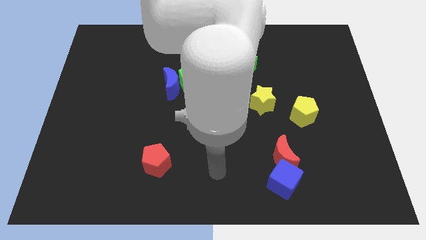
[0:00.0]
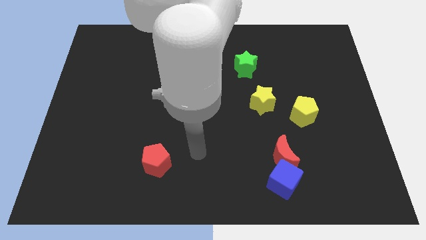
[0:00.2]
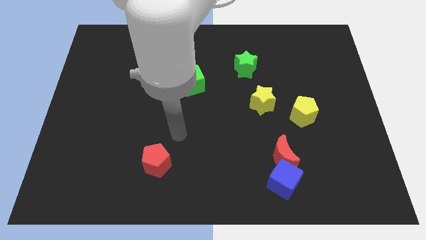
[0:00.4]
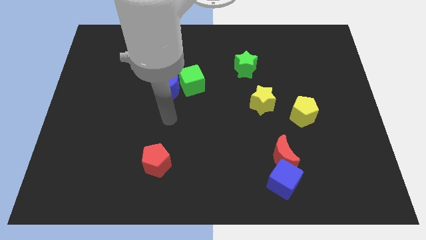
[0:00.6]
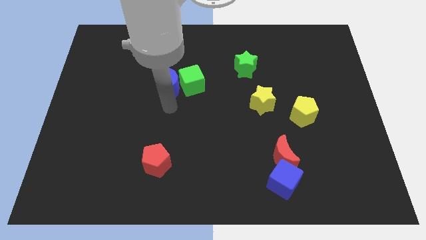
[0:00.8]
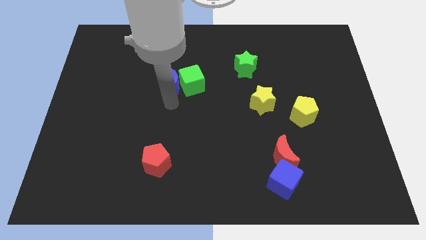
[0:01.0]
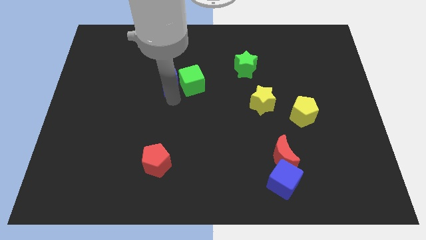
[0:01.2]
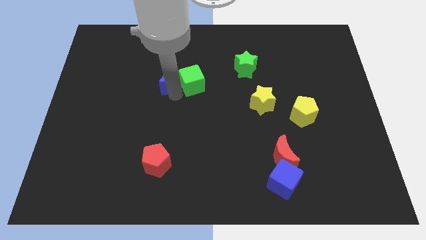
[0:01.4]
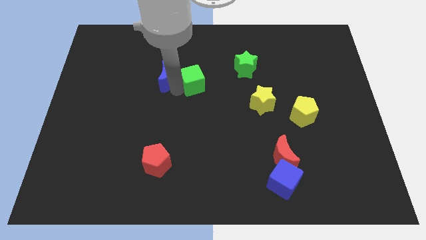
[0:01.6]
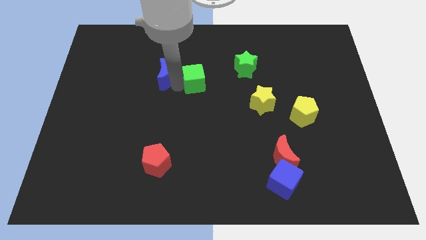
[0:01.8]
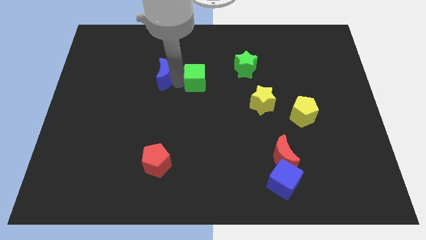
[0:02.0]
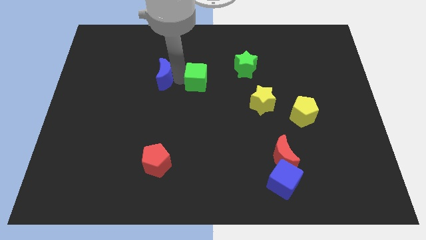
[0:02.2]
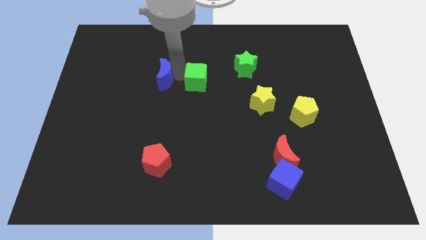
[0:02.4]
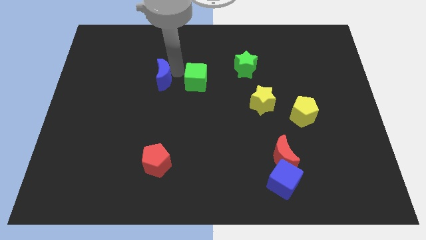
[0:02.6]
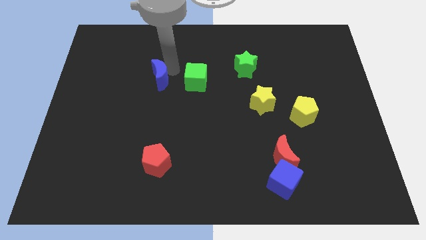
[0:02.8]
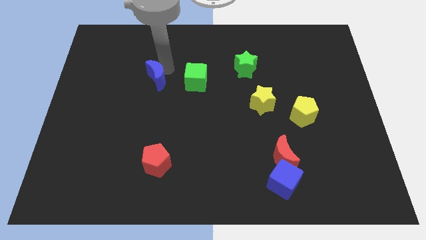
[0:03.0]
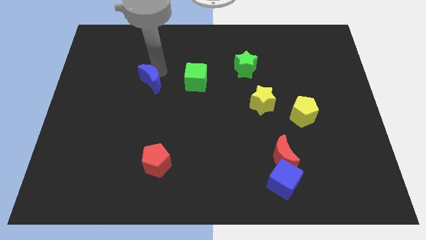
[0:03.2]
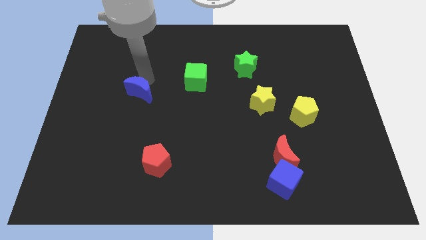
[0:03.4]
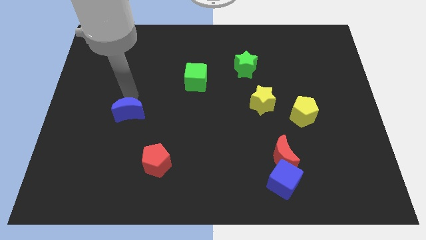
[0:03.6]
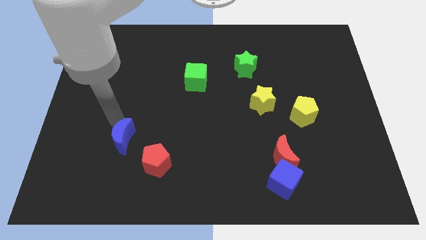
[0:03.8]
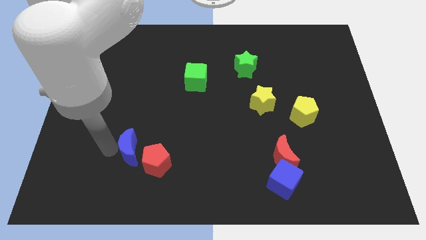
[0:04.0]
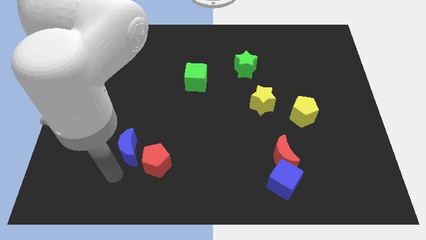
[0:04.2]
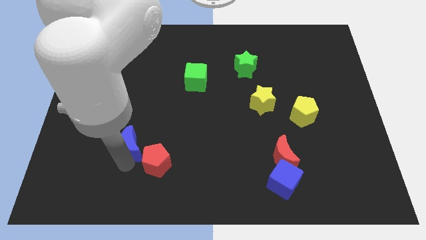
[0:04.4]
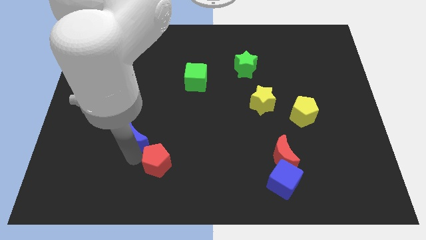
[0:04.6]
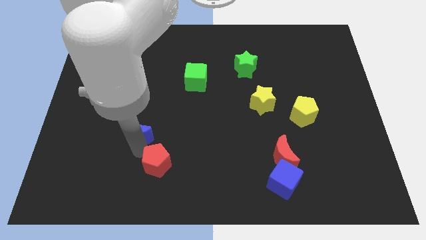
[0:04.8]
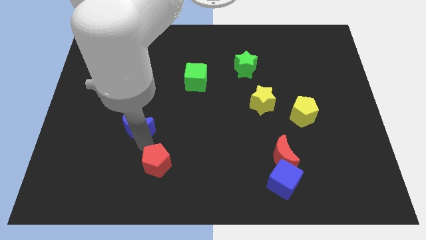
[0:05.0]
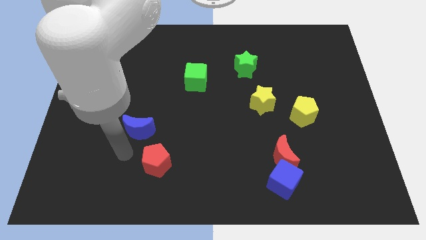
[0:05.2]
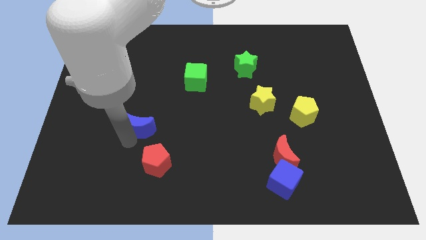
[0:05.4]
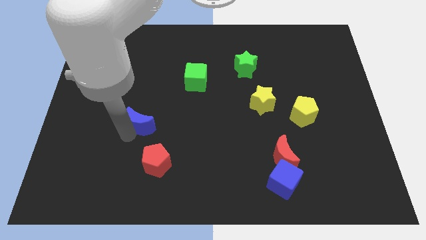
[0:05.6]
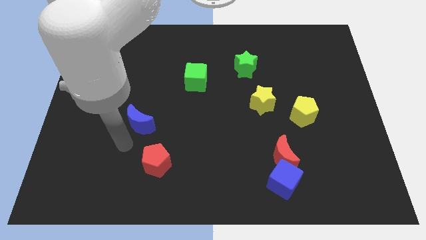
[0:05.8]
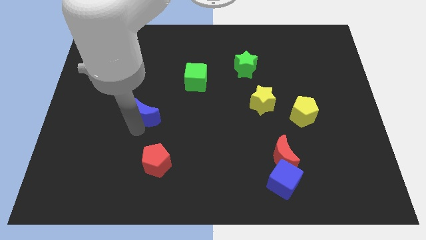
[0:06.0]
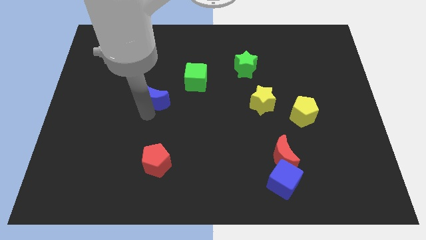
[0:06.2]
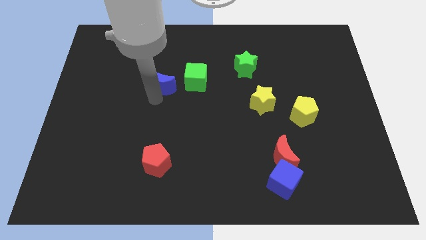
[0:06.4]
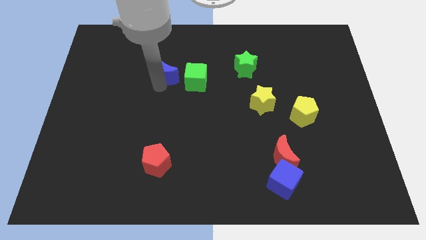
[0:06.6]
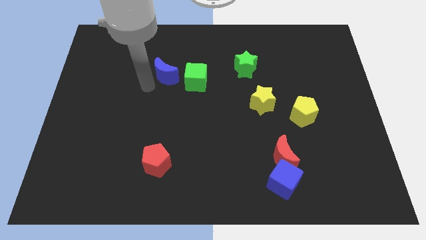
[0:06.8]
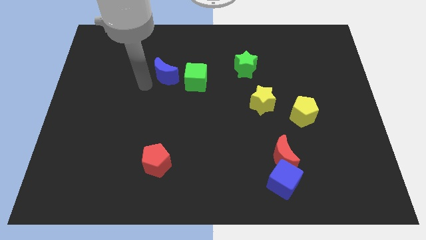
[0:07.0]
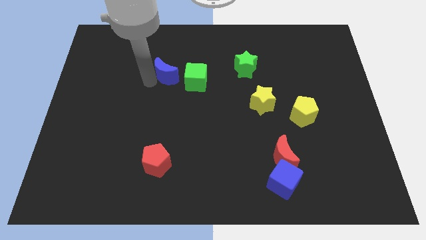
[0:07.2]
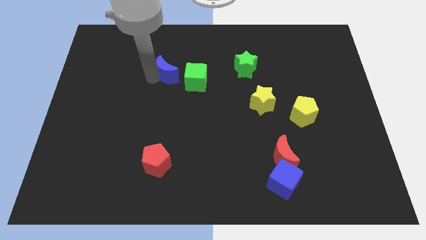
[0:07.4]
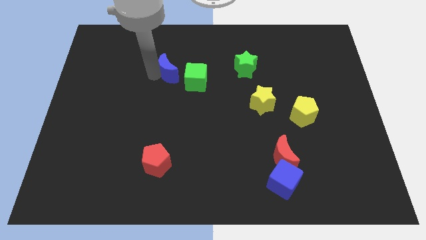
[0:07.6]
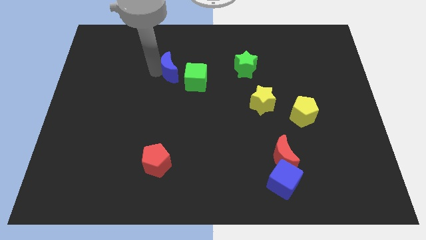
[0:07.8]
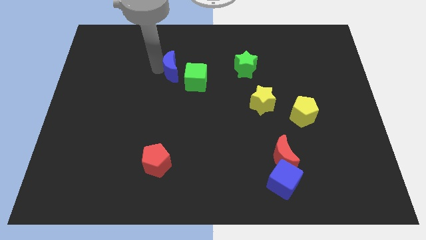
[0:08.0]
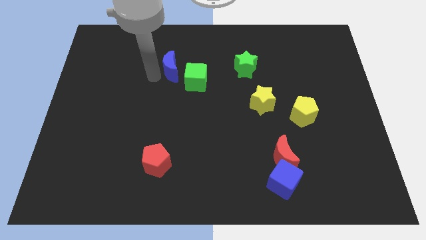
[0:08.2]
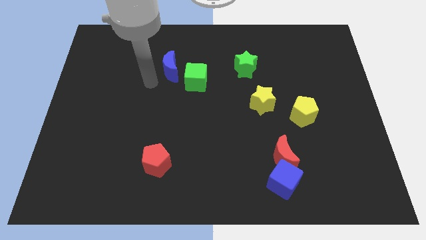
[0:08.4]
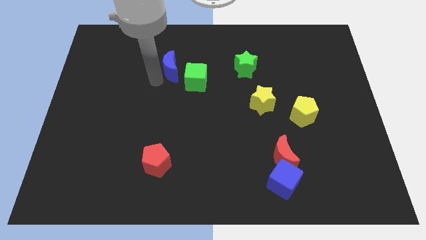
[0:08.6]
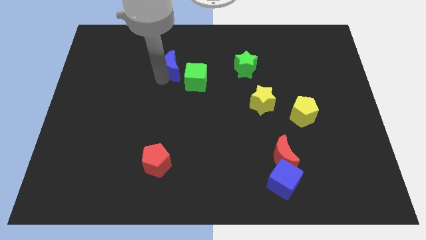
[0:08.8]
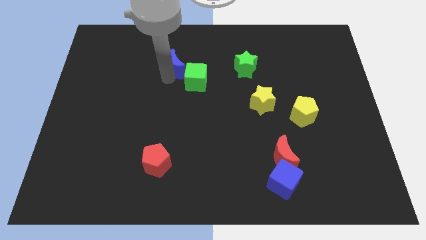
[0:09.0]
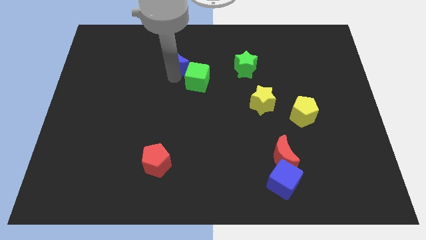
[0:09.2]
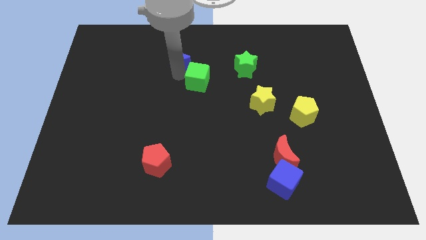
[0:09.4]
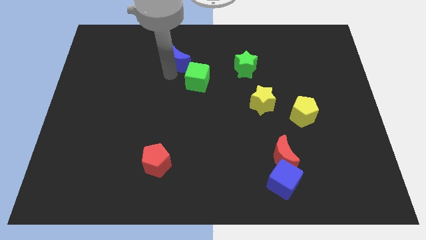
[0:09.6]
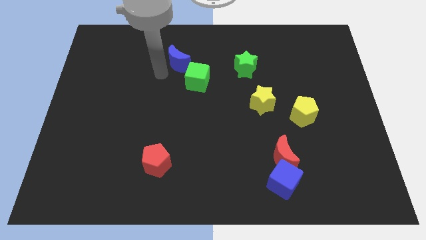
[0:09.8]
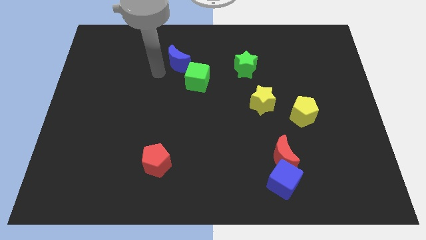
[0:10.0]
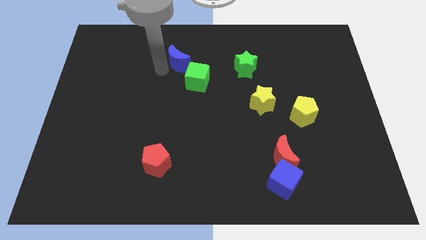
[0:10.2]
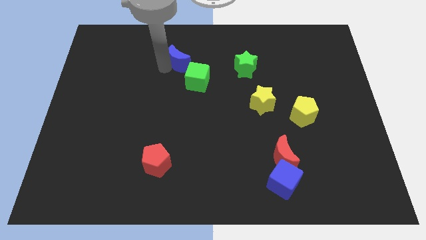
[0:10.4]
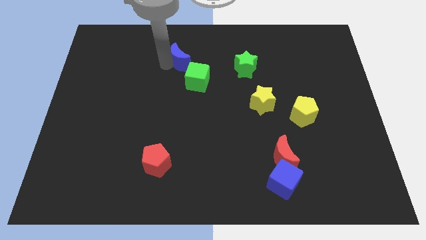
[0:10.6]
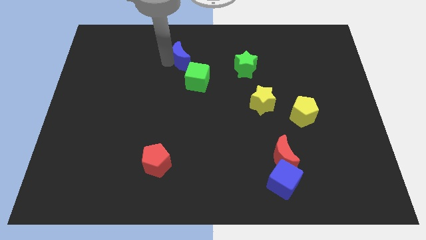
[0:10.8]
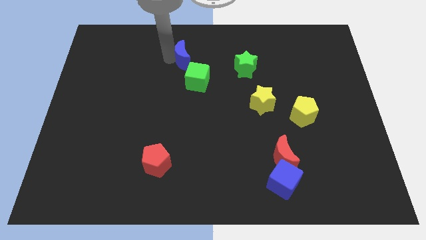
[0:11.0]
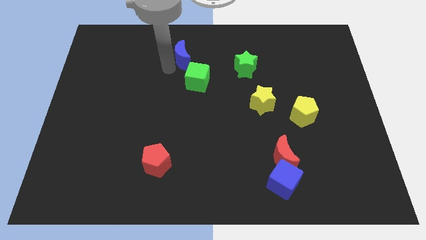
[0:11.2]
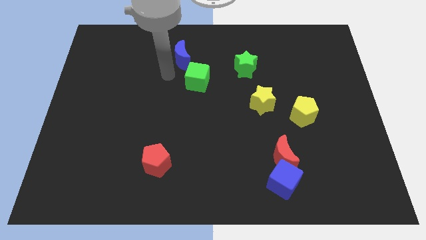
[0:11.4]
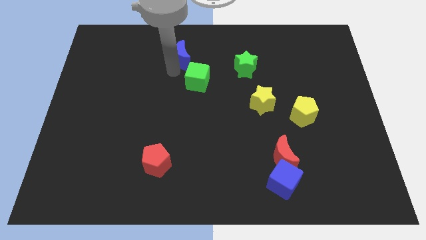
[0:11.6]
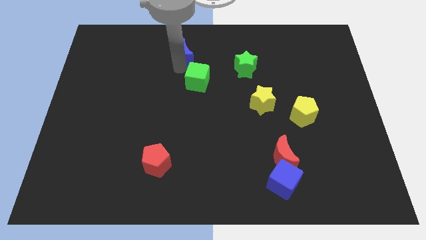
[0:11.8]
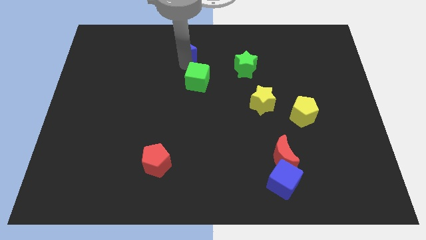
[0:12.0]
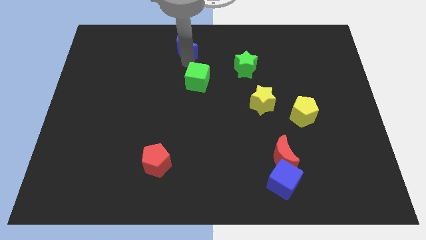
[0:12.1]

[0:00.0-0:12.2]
push the blue moon to the top

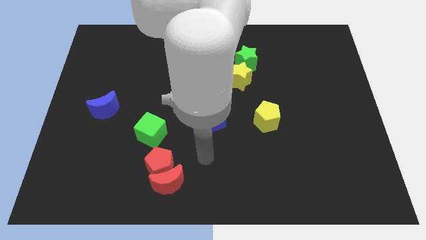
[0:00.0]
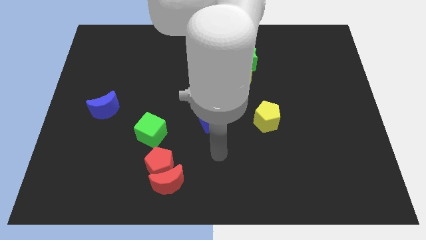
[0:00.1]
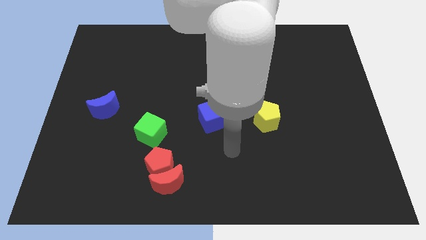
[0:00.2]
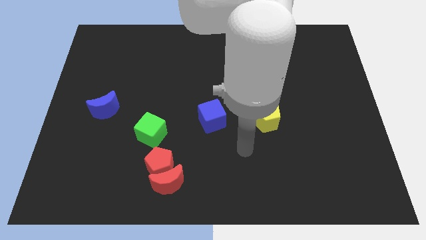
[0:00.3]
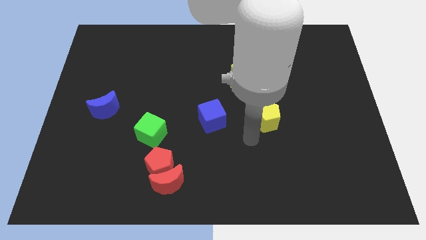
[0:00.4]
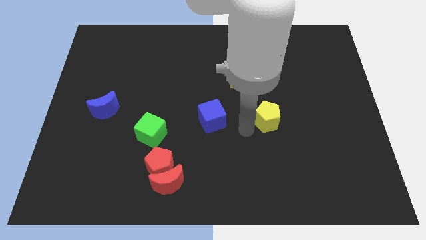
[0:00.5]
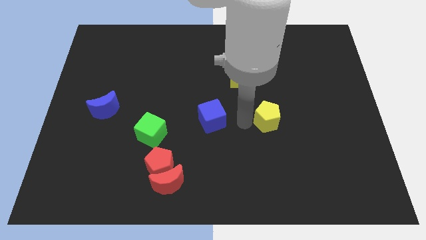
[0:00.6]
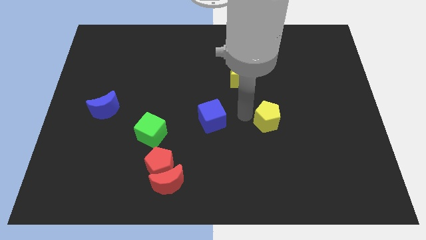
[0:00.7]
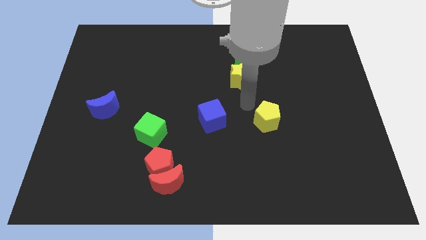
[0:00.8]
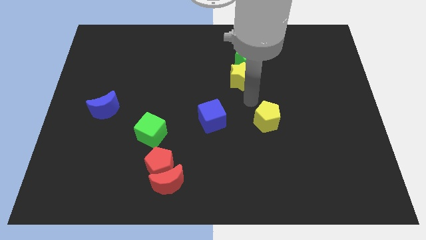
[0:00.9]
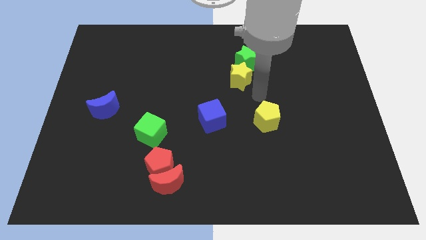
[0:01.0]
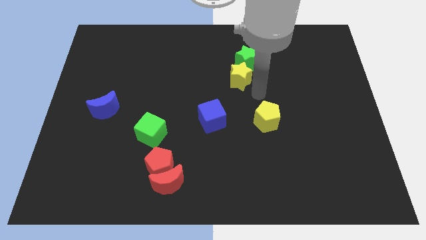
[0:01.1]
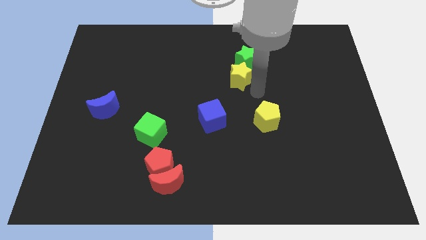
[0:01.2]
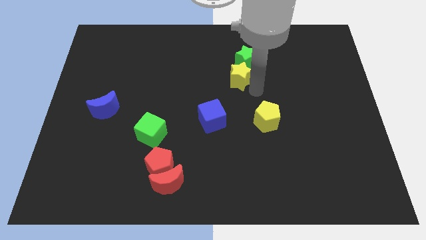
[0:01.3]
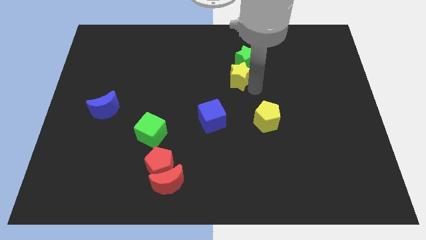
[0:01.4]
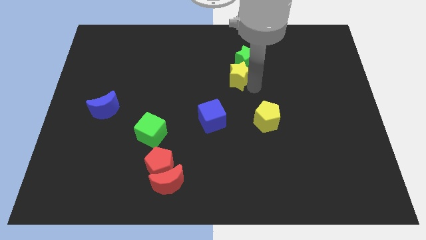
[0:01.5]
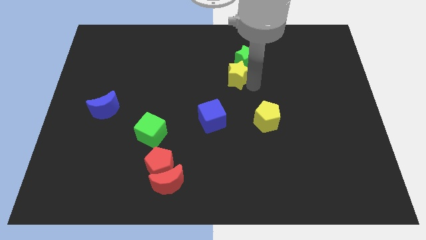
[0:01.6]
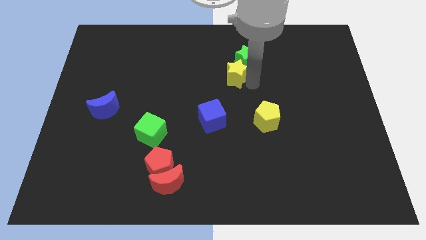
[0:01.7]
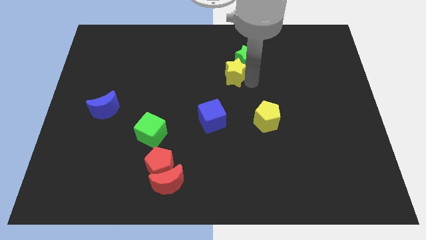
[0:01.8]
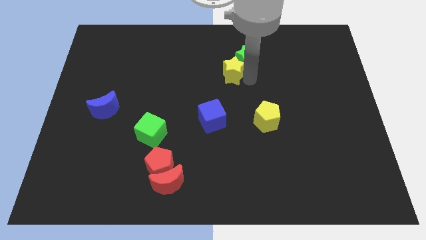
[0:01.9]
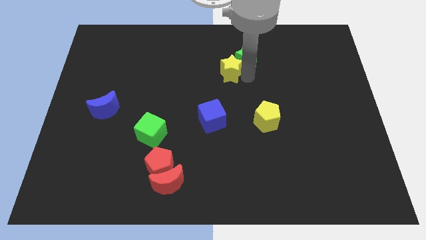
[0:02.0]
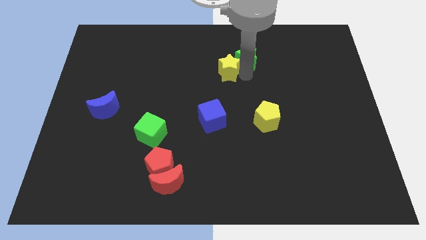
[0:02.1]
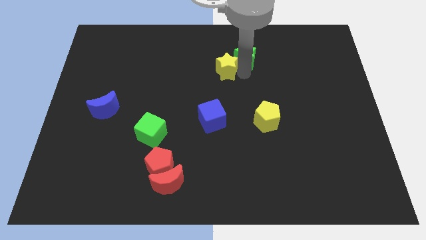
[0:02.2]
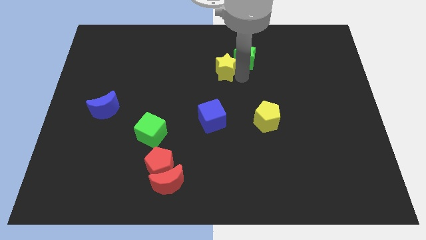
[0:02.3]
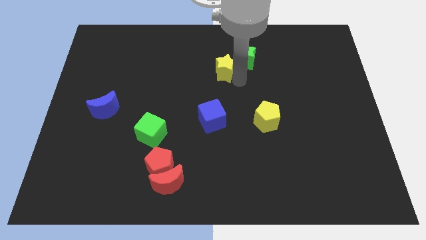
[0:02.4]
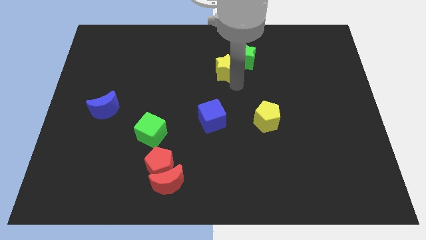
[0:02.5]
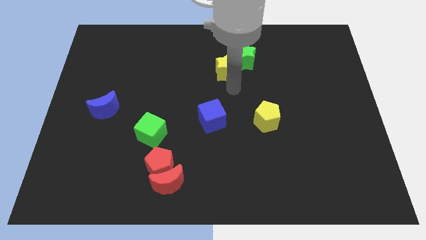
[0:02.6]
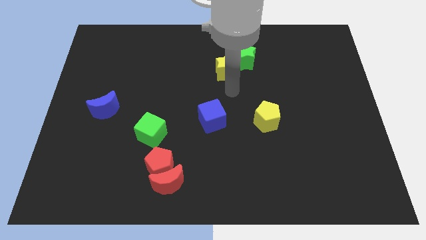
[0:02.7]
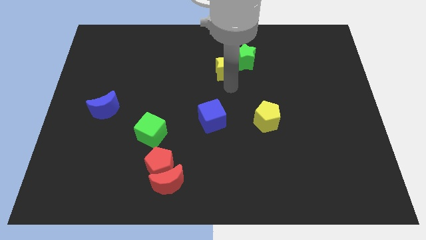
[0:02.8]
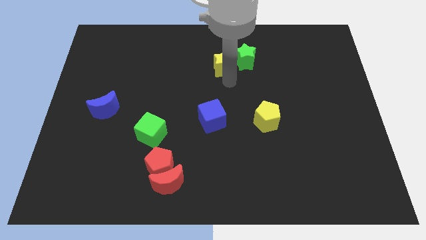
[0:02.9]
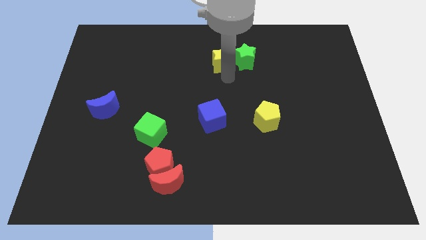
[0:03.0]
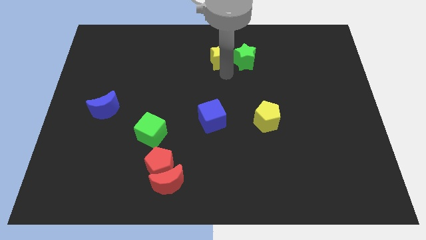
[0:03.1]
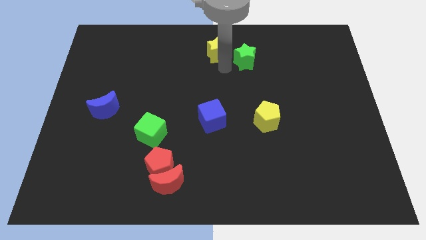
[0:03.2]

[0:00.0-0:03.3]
push the yellow star to the towards your base
